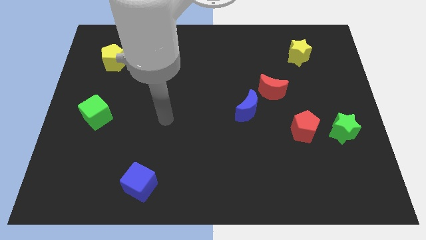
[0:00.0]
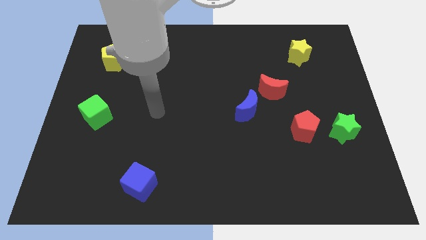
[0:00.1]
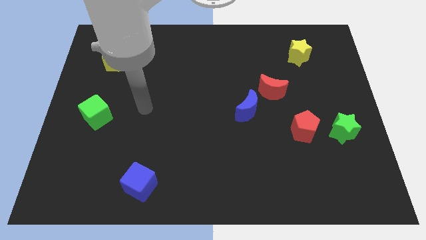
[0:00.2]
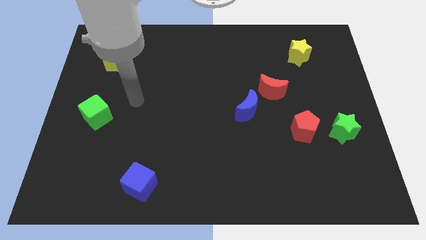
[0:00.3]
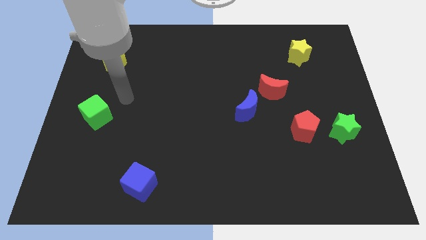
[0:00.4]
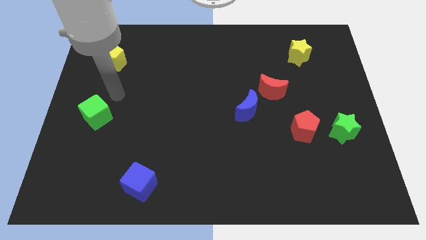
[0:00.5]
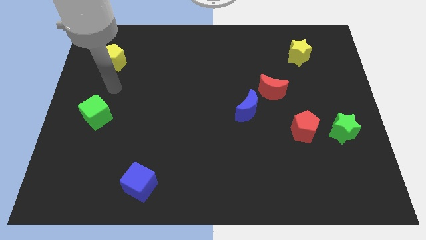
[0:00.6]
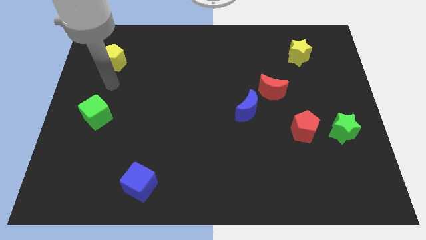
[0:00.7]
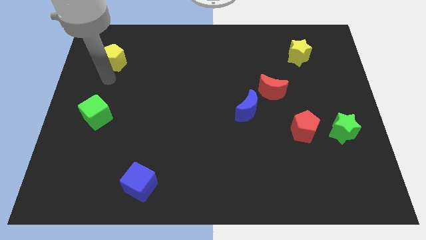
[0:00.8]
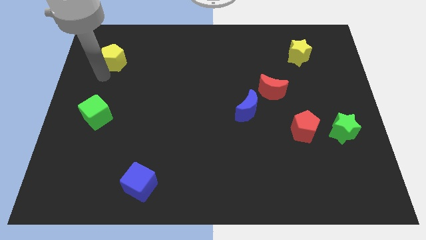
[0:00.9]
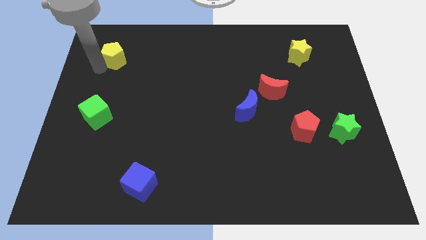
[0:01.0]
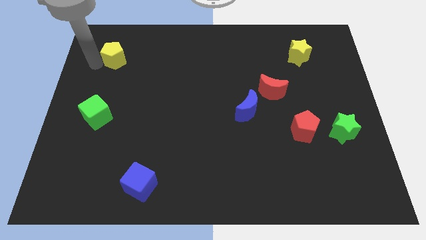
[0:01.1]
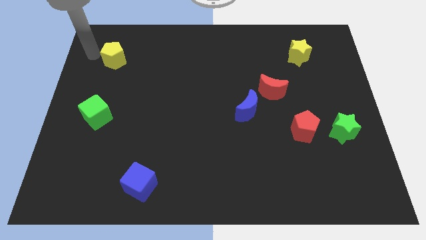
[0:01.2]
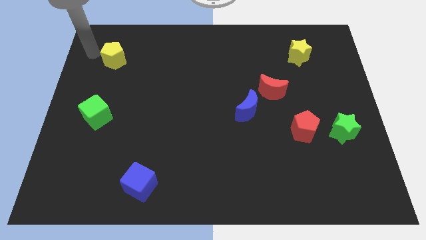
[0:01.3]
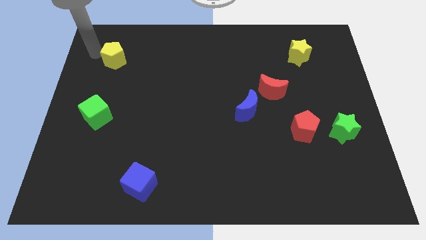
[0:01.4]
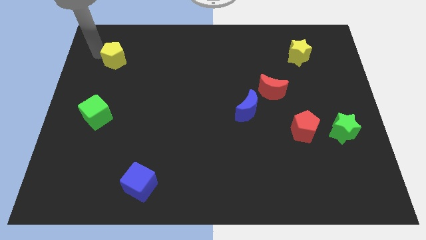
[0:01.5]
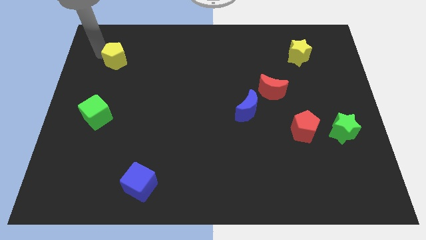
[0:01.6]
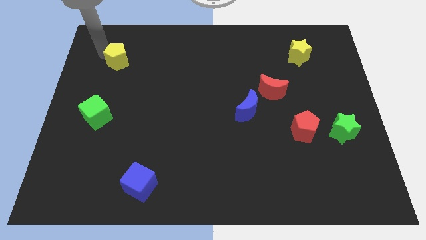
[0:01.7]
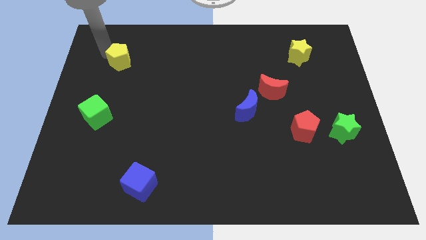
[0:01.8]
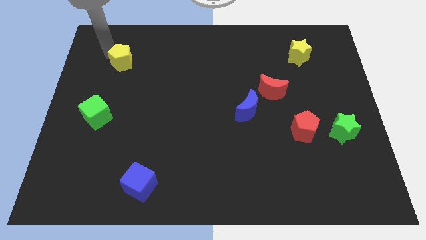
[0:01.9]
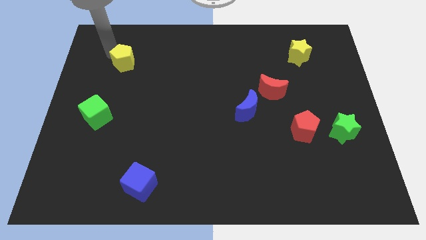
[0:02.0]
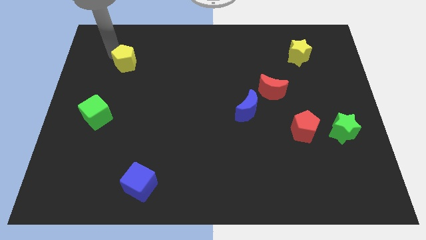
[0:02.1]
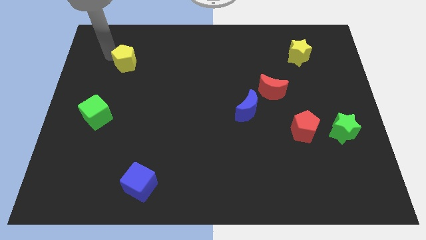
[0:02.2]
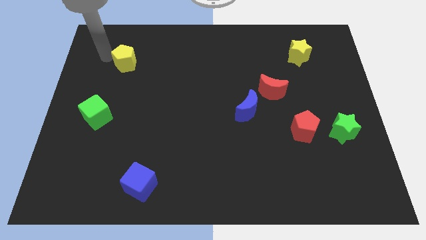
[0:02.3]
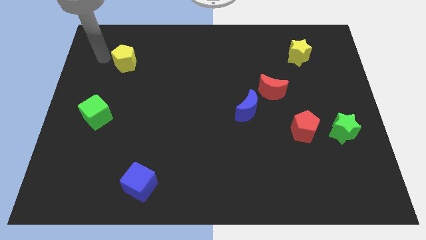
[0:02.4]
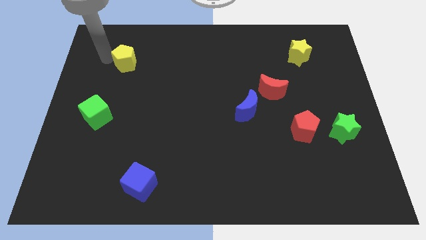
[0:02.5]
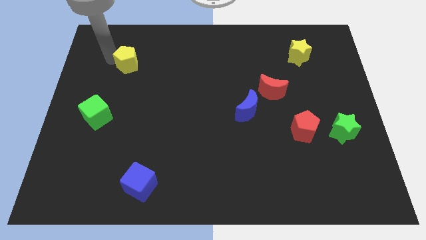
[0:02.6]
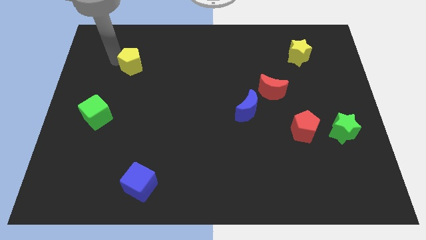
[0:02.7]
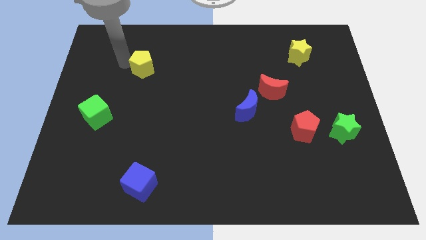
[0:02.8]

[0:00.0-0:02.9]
slightly slide the yellow pentagon right

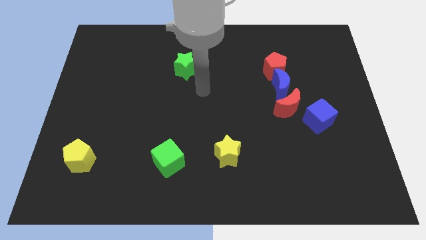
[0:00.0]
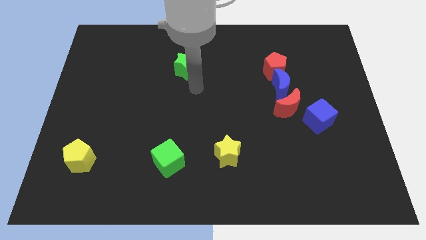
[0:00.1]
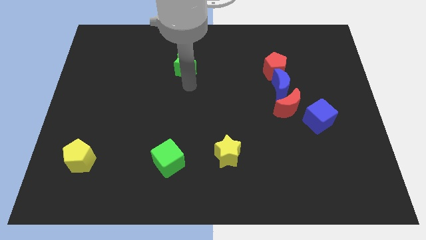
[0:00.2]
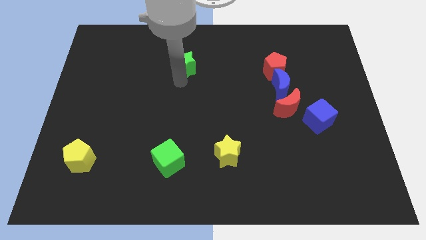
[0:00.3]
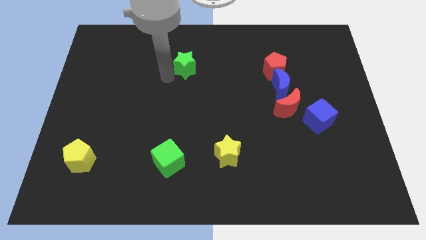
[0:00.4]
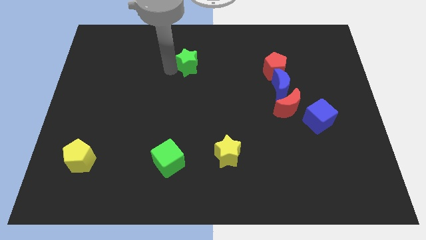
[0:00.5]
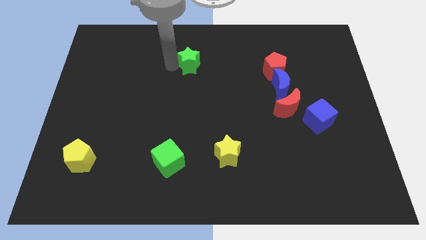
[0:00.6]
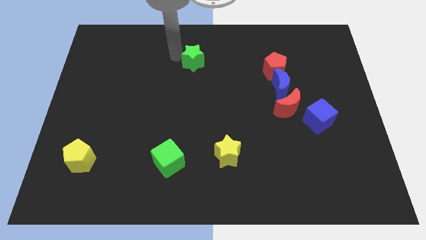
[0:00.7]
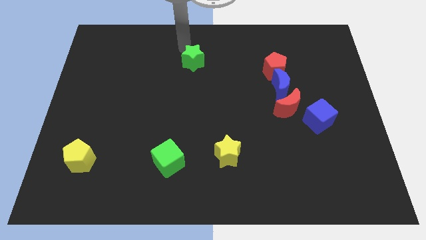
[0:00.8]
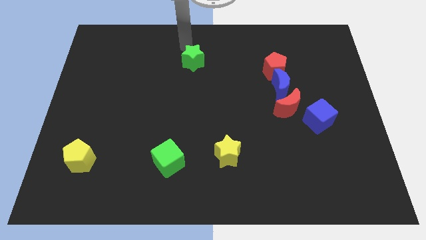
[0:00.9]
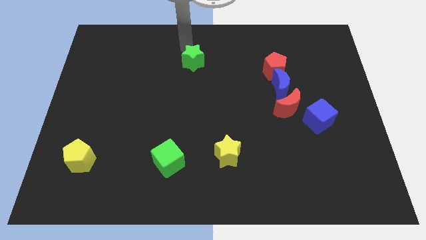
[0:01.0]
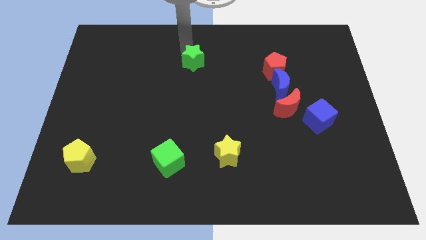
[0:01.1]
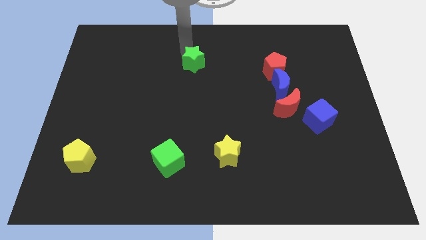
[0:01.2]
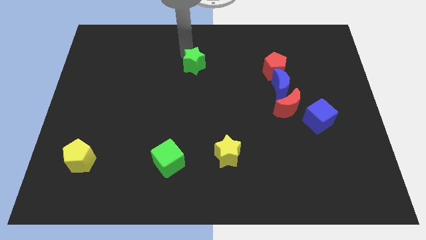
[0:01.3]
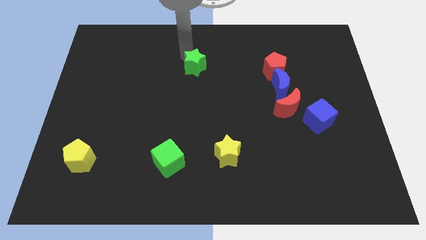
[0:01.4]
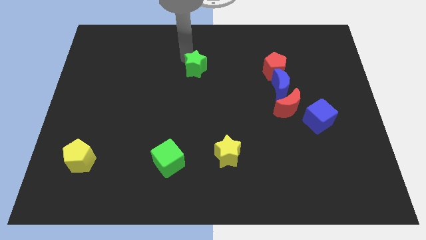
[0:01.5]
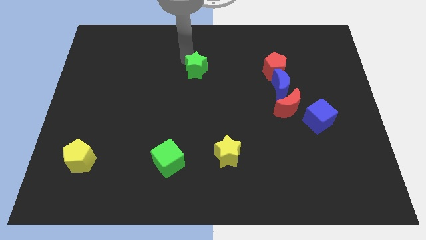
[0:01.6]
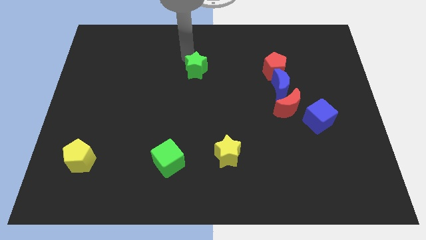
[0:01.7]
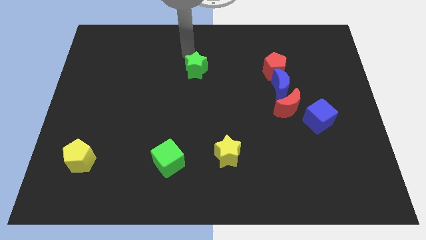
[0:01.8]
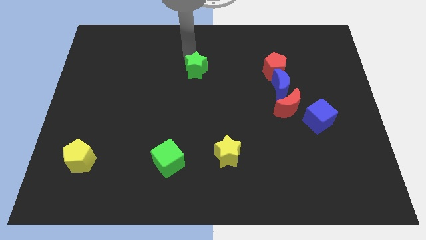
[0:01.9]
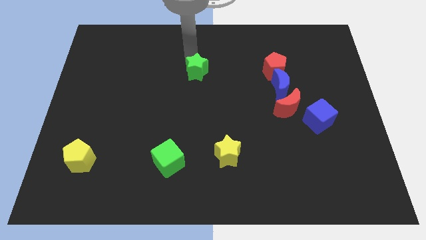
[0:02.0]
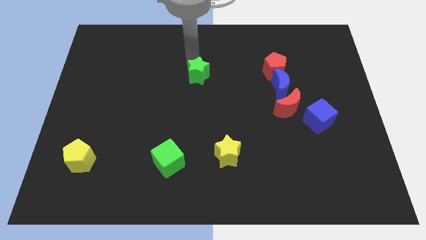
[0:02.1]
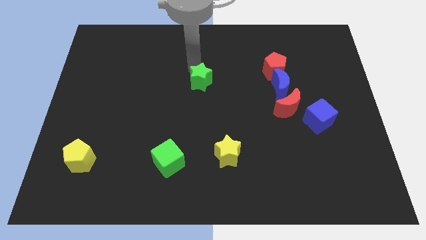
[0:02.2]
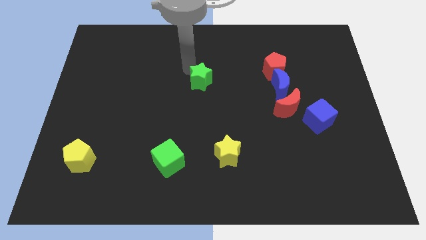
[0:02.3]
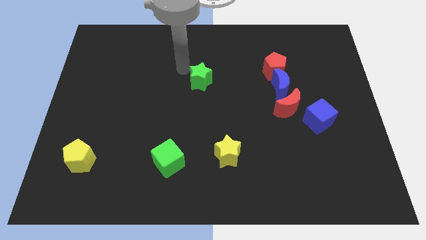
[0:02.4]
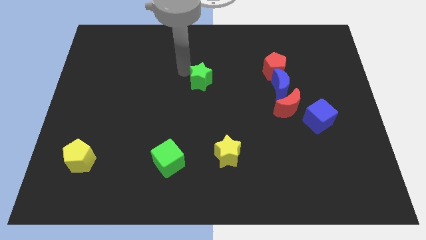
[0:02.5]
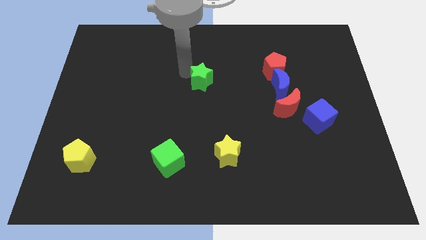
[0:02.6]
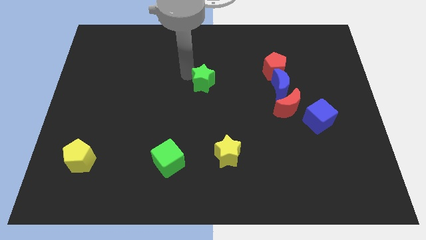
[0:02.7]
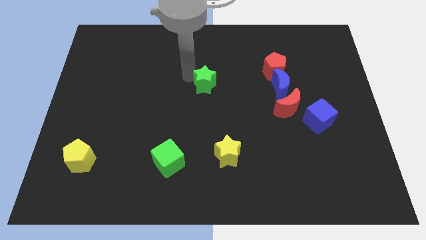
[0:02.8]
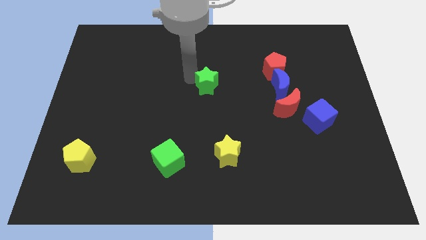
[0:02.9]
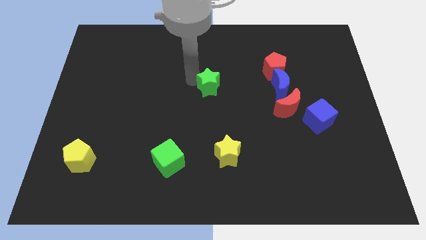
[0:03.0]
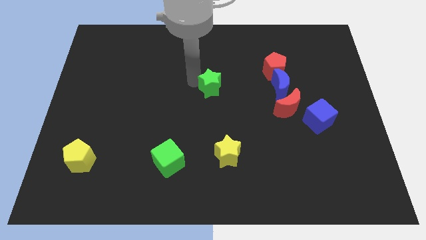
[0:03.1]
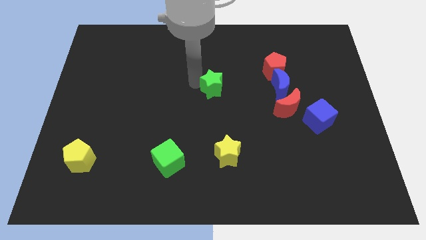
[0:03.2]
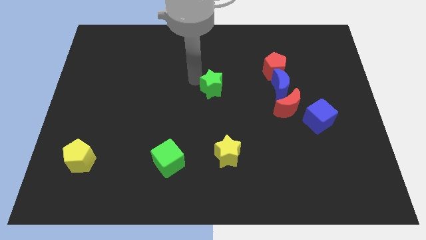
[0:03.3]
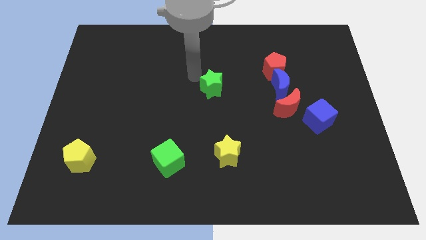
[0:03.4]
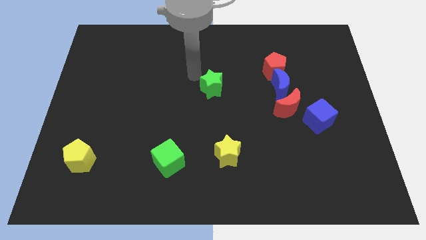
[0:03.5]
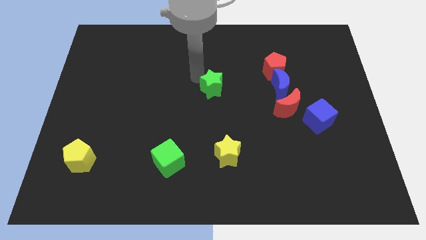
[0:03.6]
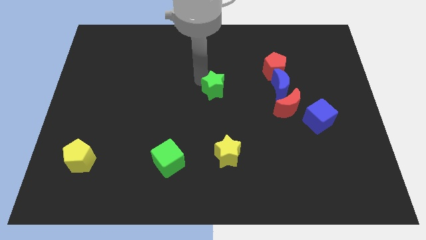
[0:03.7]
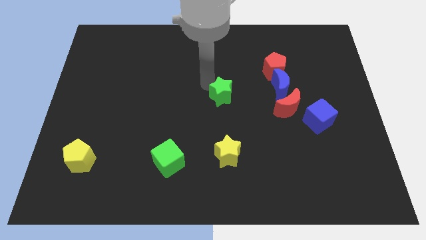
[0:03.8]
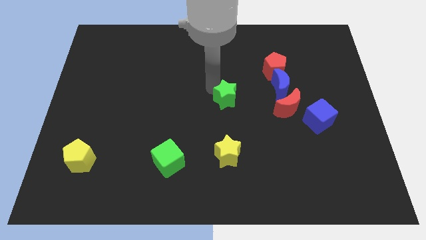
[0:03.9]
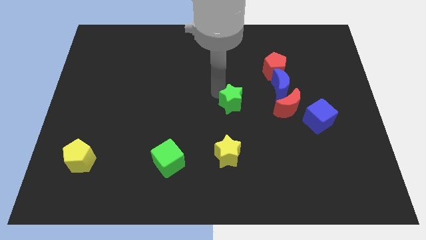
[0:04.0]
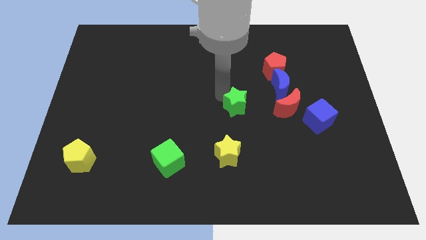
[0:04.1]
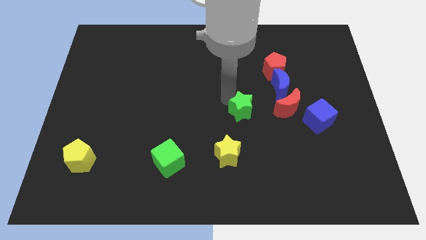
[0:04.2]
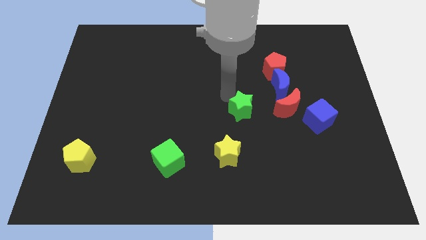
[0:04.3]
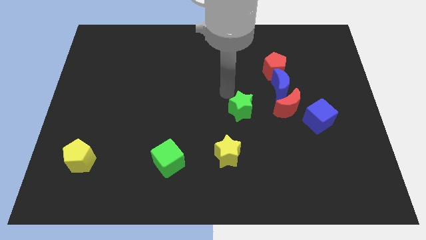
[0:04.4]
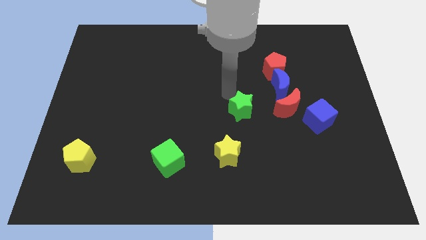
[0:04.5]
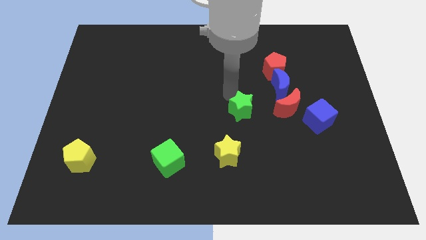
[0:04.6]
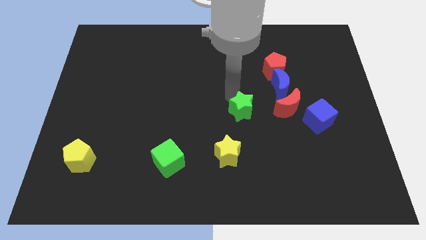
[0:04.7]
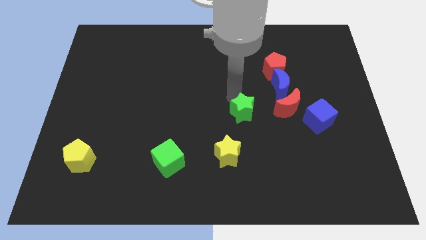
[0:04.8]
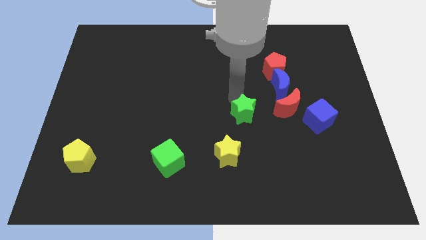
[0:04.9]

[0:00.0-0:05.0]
move the green star downwards and to the right diagonally
